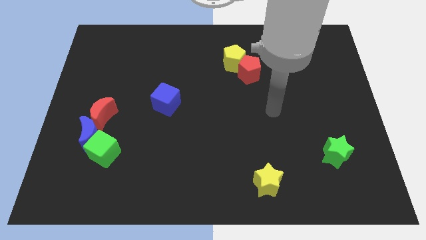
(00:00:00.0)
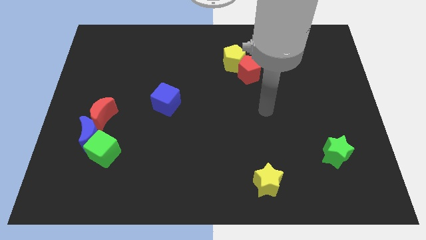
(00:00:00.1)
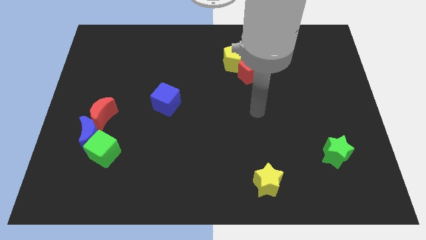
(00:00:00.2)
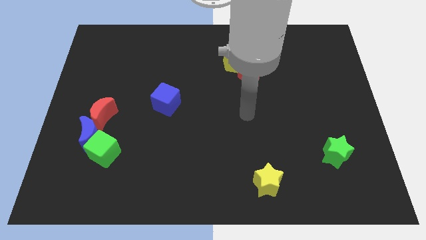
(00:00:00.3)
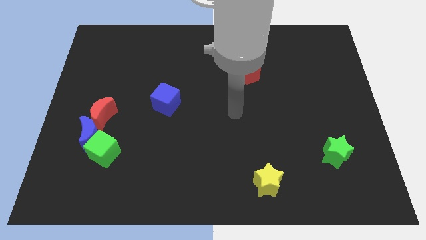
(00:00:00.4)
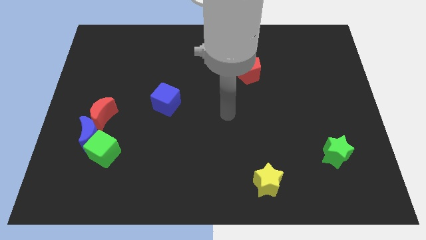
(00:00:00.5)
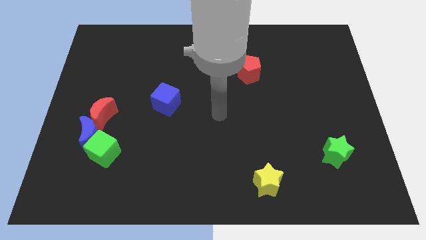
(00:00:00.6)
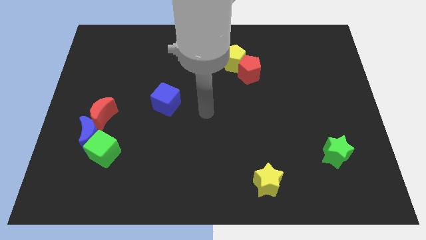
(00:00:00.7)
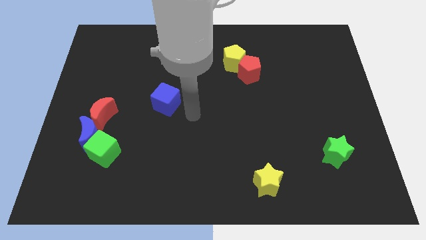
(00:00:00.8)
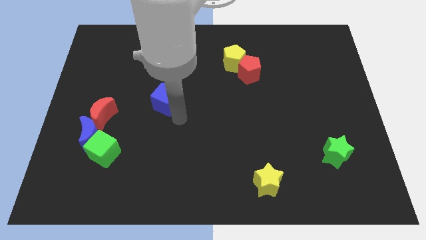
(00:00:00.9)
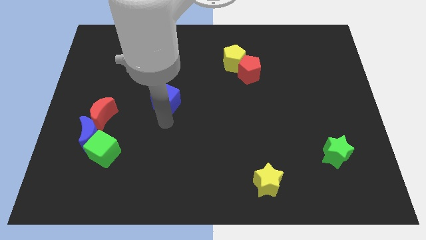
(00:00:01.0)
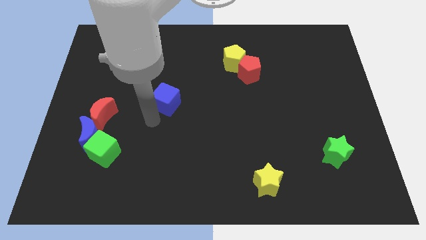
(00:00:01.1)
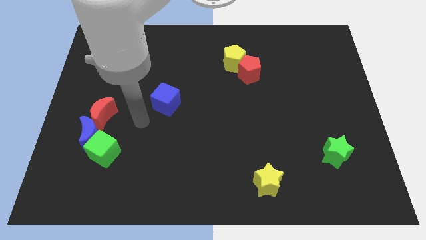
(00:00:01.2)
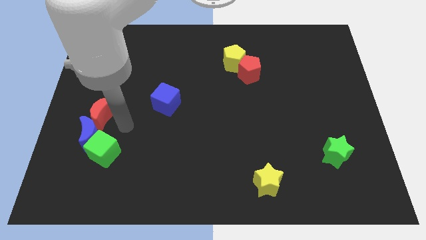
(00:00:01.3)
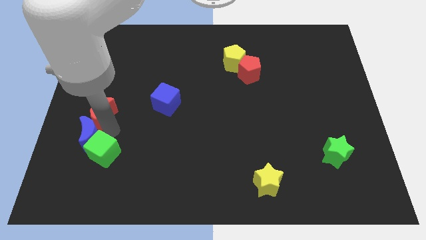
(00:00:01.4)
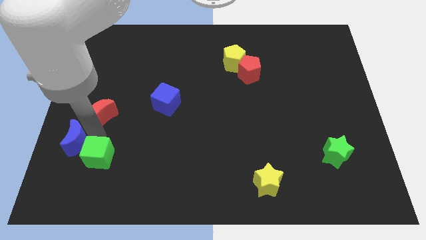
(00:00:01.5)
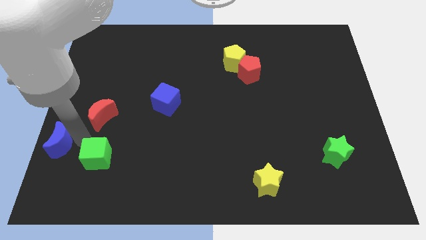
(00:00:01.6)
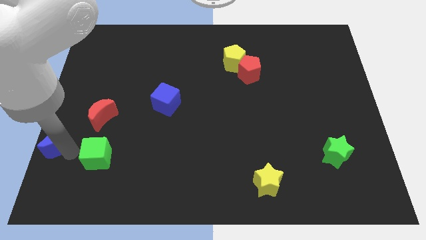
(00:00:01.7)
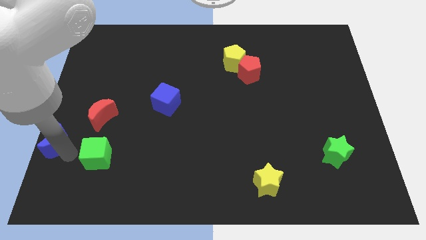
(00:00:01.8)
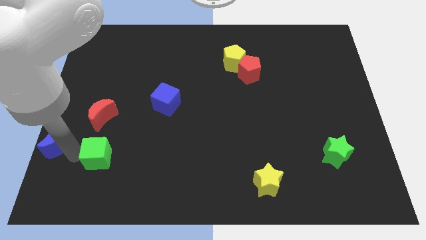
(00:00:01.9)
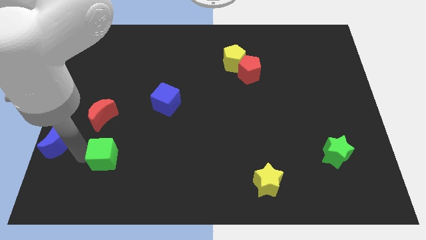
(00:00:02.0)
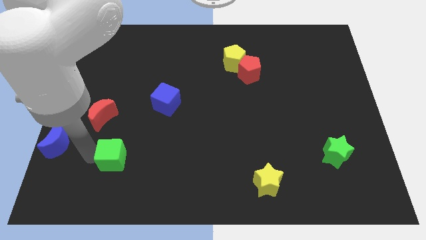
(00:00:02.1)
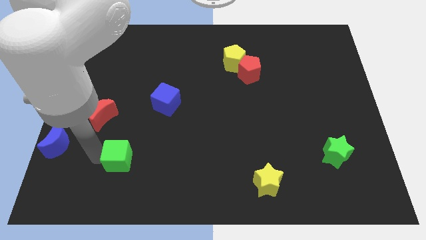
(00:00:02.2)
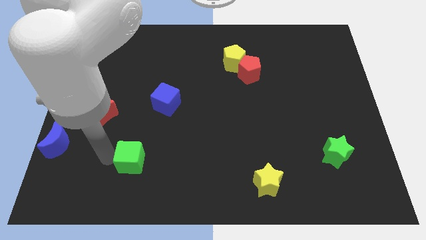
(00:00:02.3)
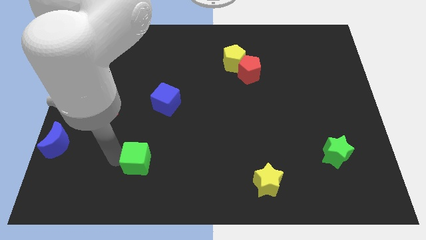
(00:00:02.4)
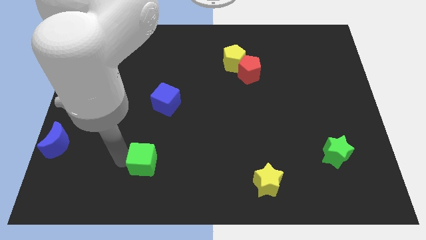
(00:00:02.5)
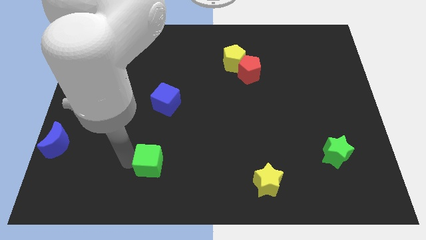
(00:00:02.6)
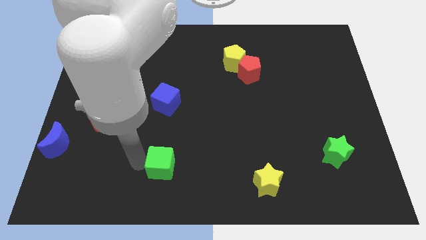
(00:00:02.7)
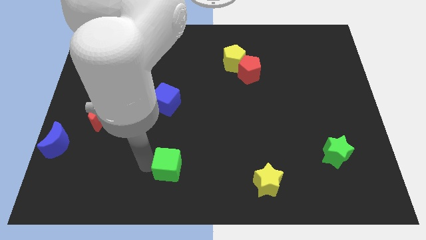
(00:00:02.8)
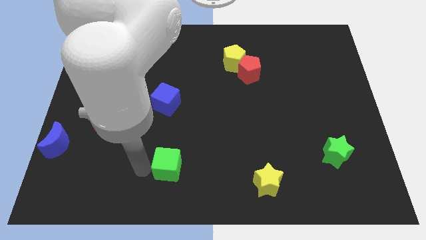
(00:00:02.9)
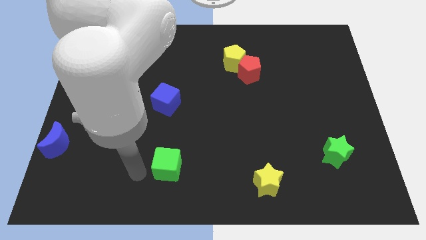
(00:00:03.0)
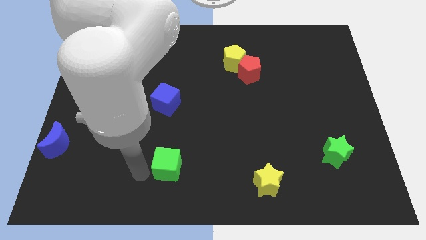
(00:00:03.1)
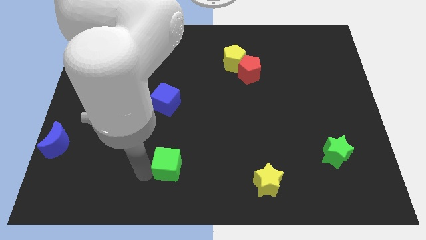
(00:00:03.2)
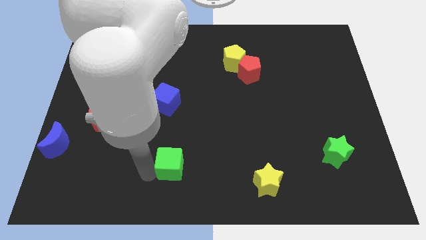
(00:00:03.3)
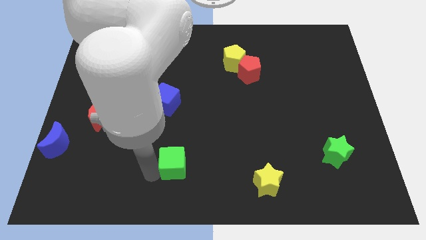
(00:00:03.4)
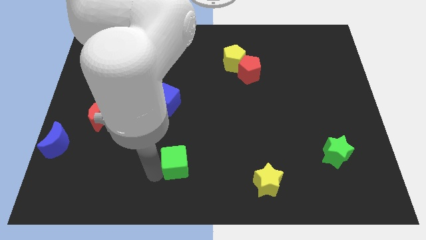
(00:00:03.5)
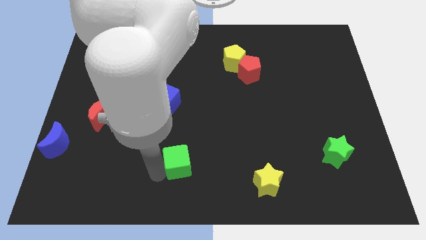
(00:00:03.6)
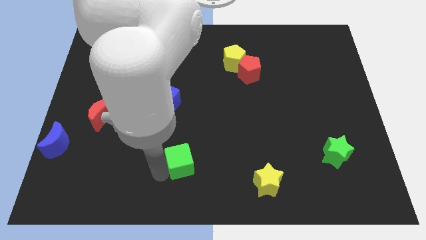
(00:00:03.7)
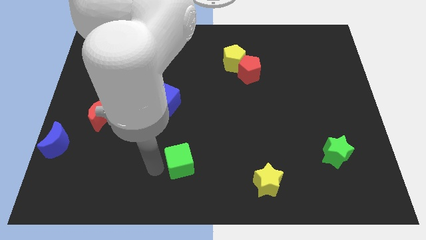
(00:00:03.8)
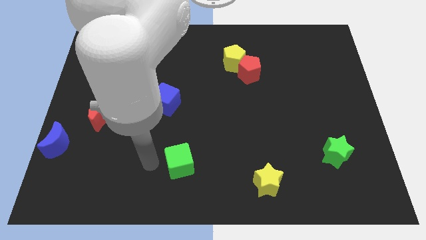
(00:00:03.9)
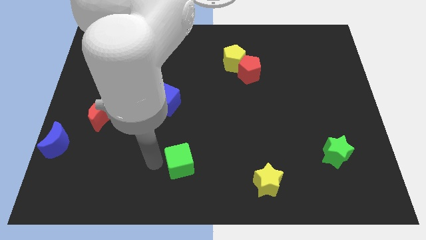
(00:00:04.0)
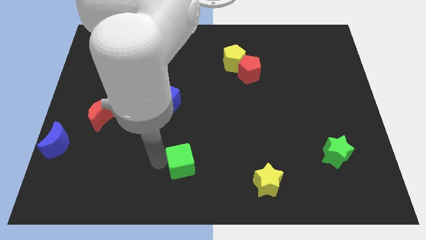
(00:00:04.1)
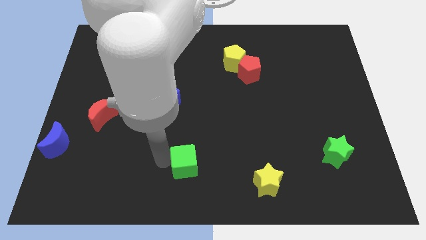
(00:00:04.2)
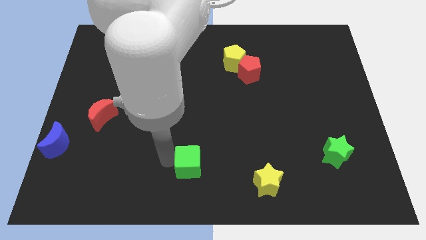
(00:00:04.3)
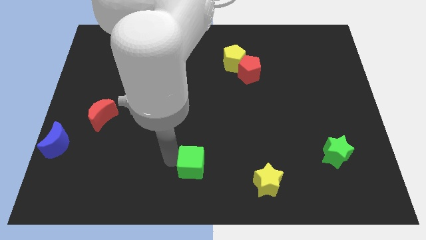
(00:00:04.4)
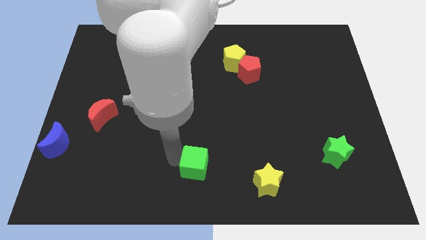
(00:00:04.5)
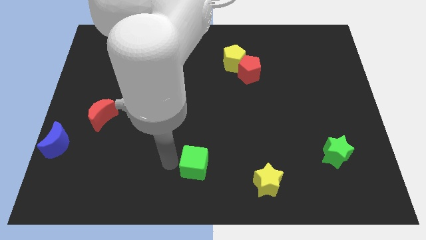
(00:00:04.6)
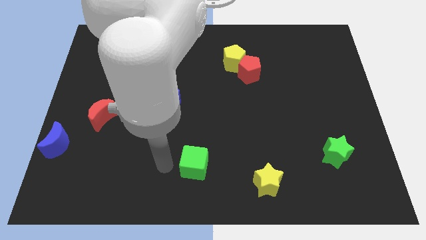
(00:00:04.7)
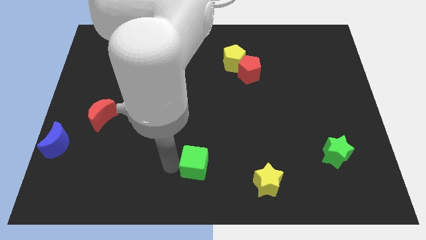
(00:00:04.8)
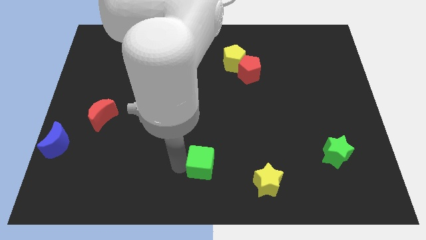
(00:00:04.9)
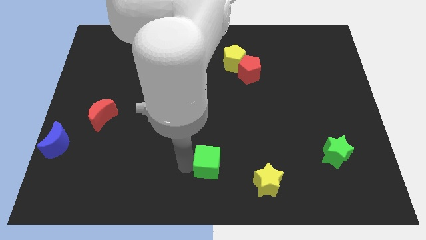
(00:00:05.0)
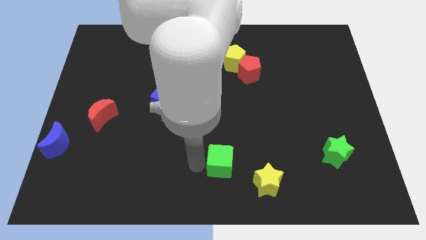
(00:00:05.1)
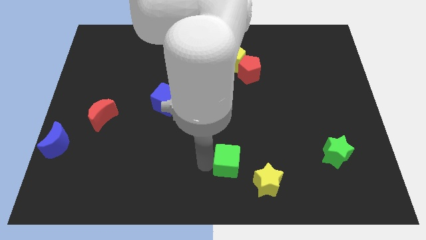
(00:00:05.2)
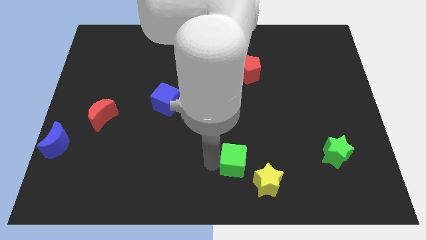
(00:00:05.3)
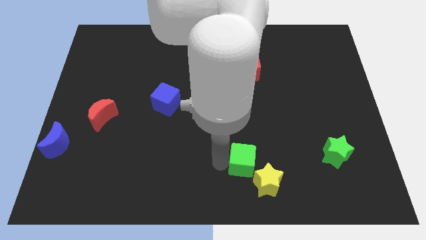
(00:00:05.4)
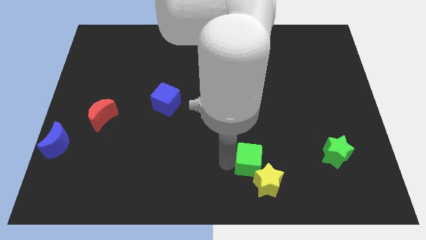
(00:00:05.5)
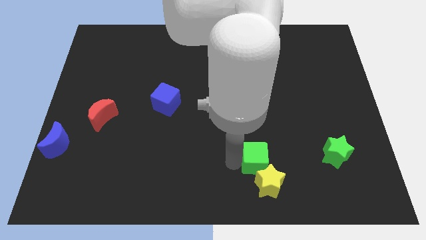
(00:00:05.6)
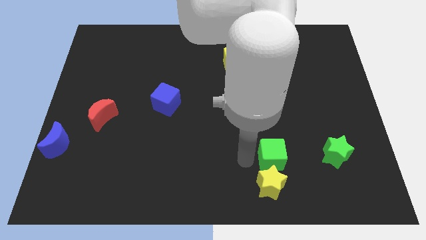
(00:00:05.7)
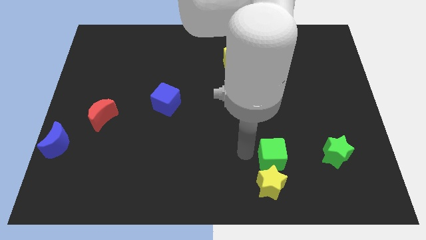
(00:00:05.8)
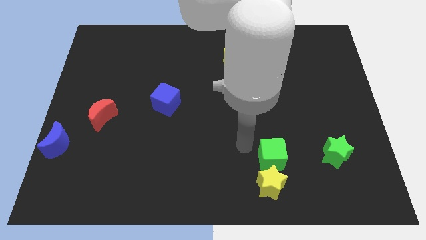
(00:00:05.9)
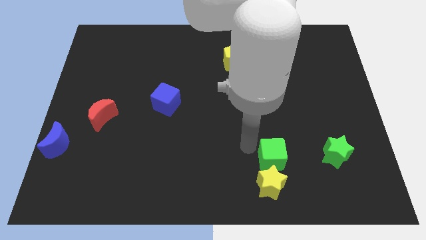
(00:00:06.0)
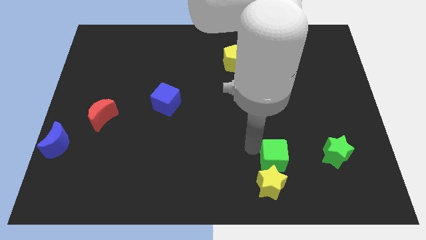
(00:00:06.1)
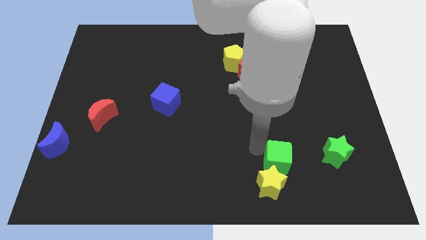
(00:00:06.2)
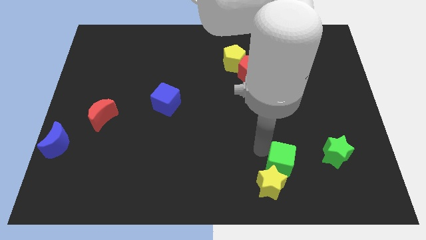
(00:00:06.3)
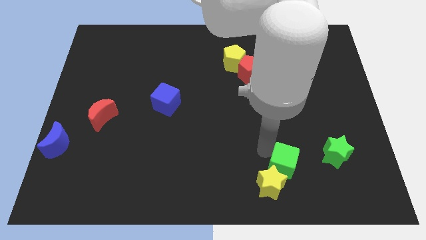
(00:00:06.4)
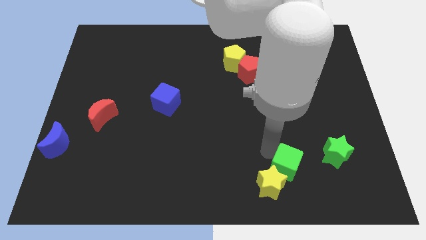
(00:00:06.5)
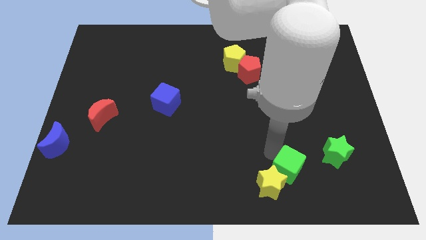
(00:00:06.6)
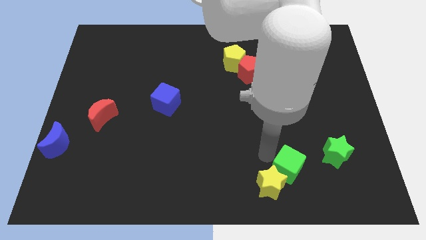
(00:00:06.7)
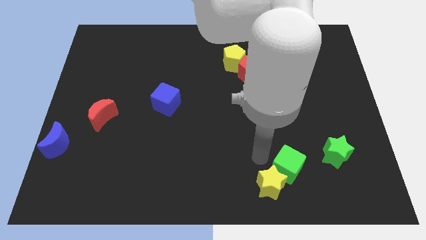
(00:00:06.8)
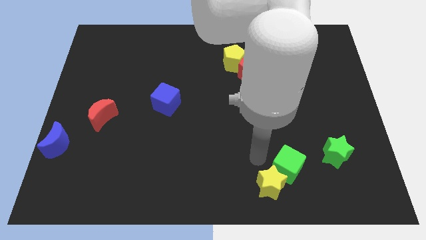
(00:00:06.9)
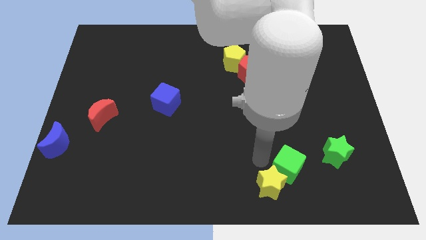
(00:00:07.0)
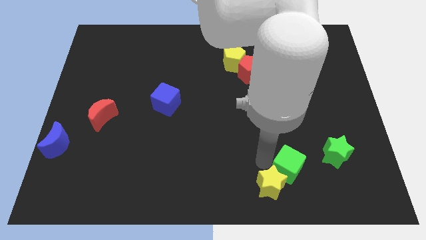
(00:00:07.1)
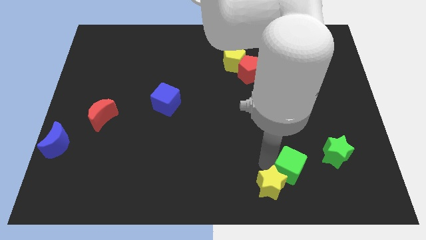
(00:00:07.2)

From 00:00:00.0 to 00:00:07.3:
push the green cube diagonally down and to the left of the green star
